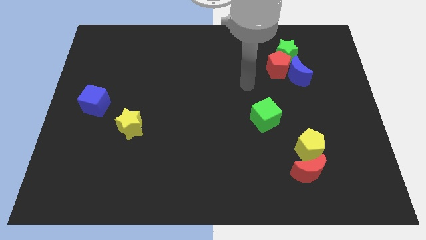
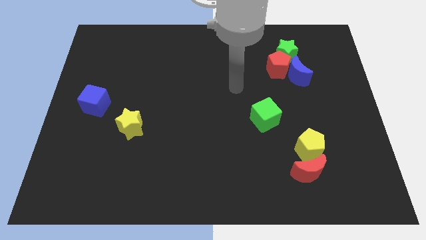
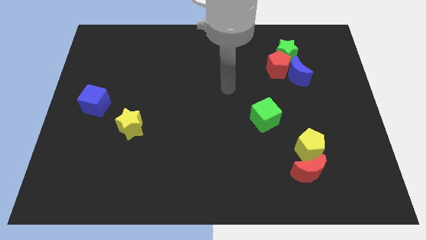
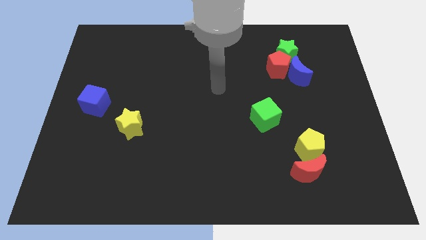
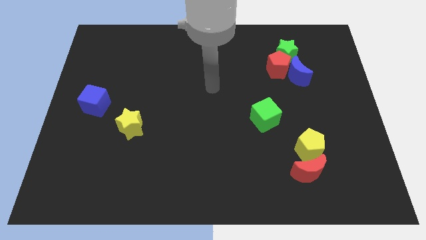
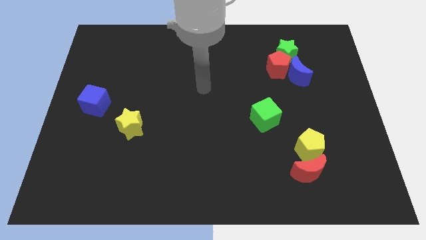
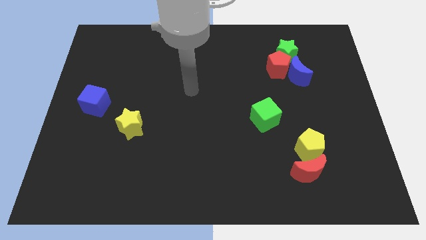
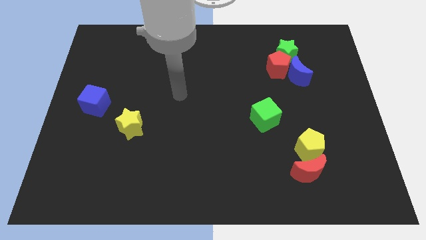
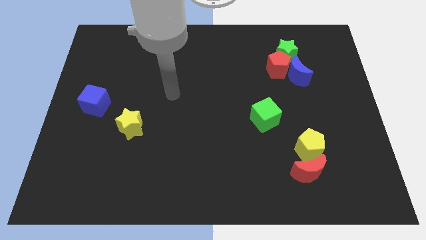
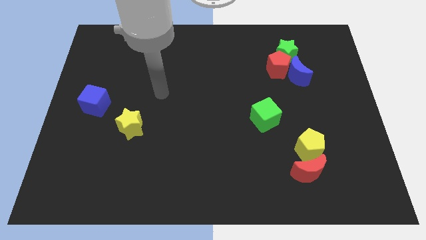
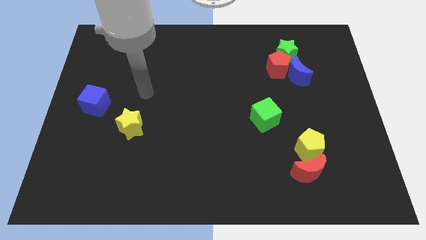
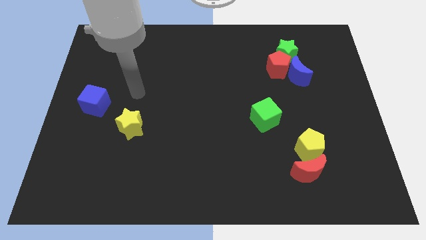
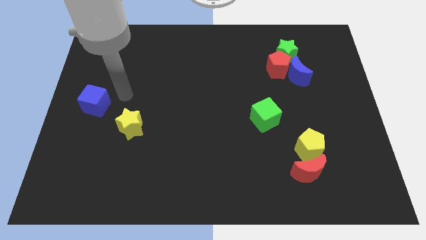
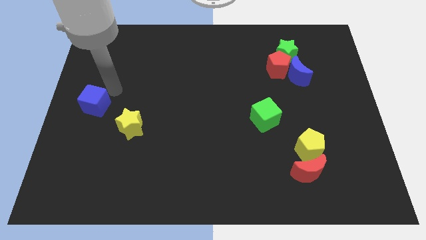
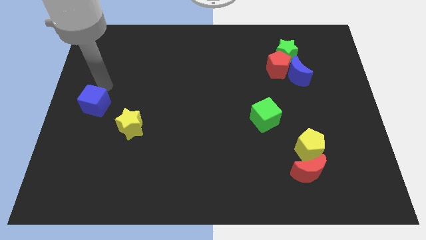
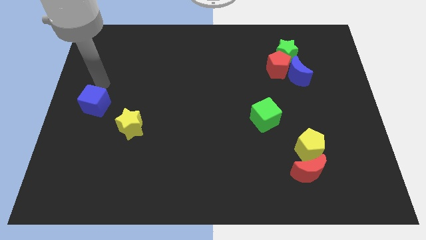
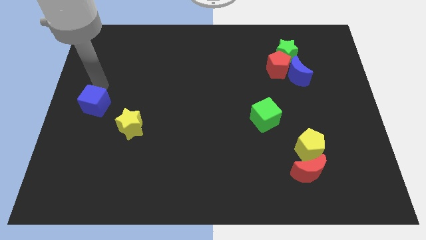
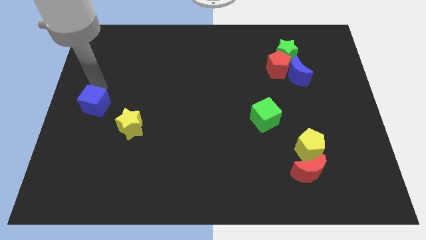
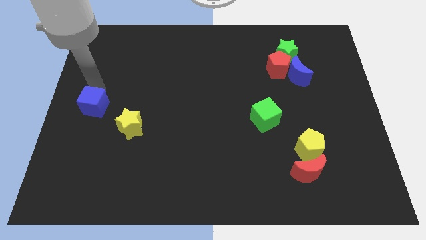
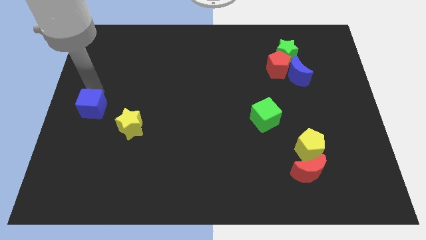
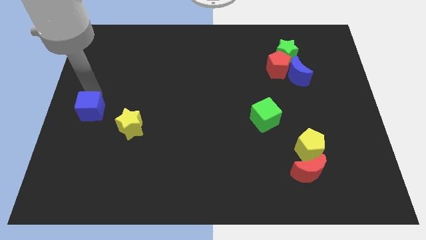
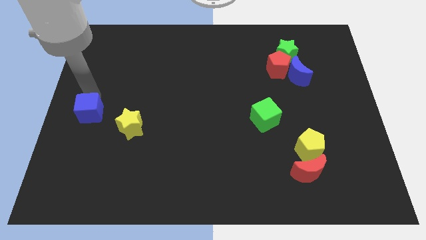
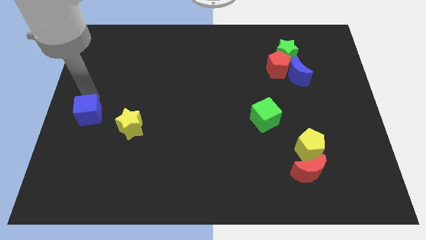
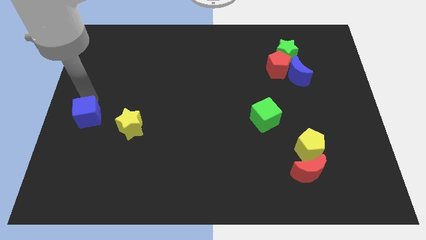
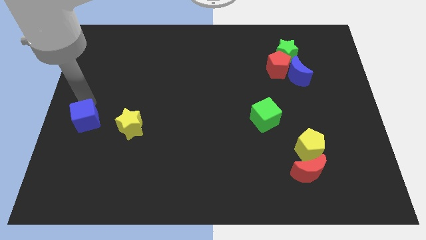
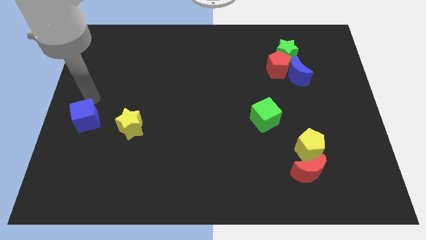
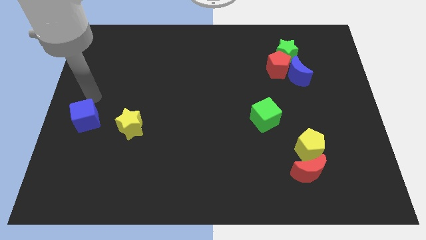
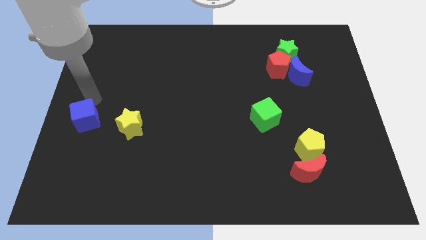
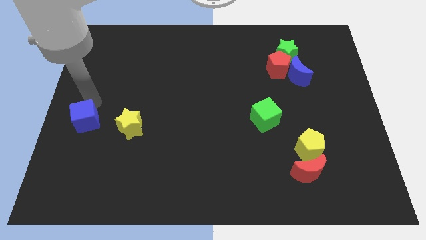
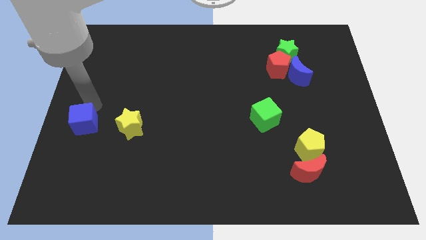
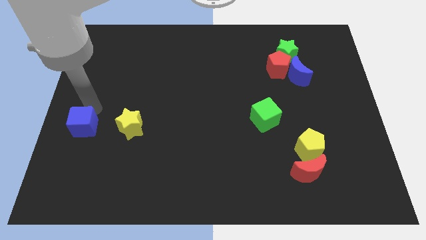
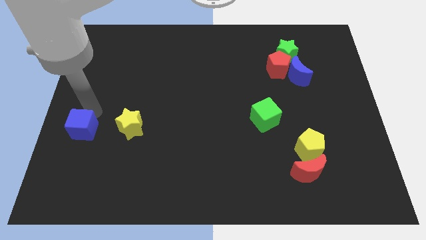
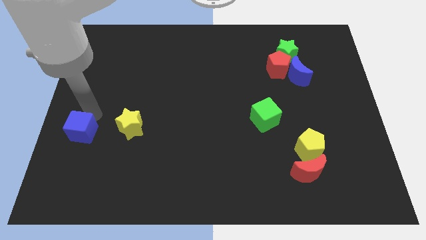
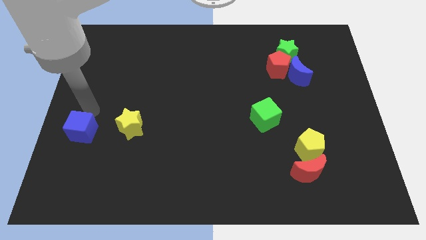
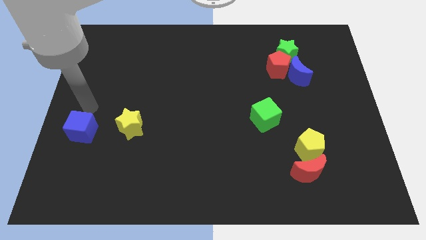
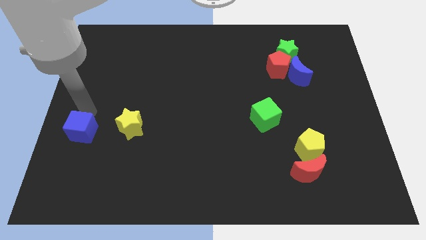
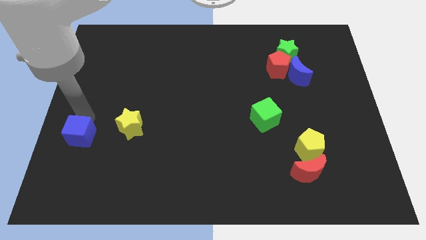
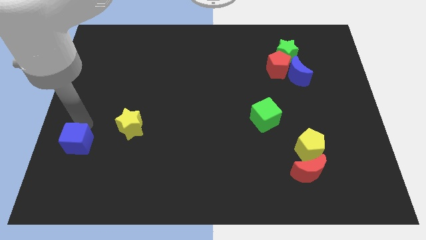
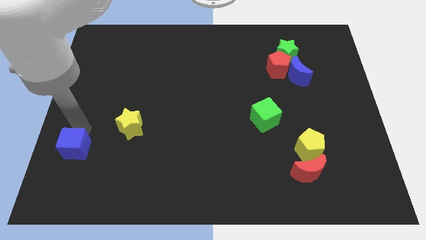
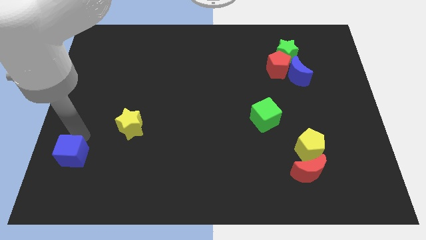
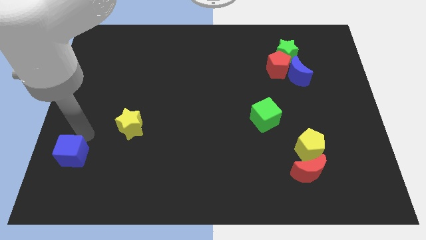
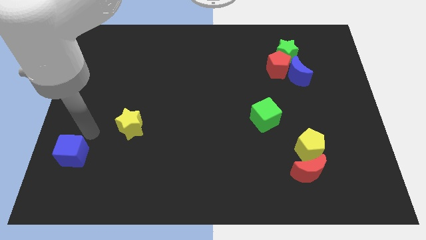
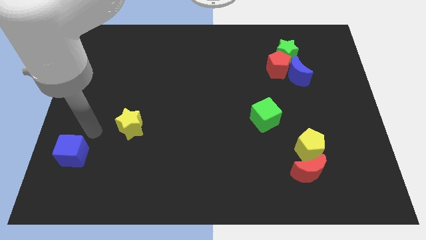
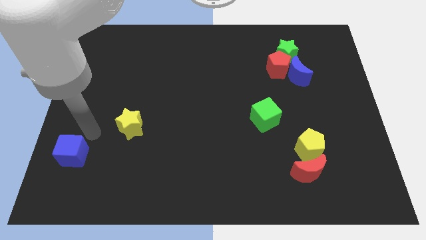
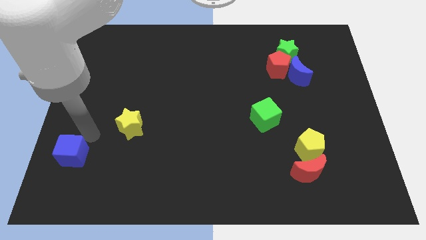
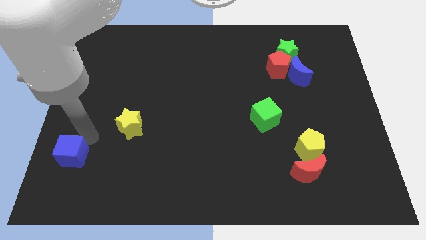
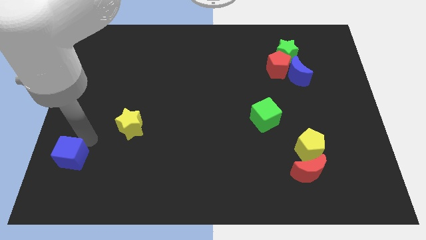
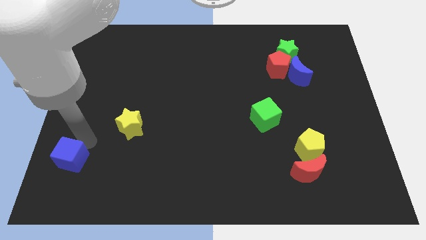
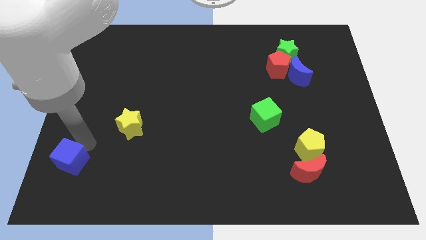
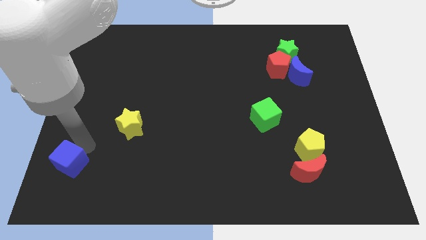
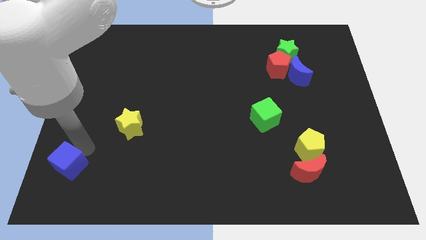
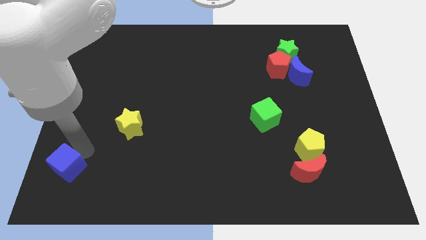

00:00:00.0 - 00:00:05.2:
slide the blue cube to the bottom left

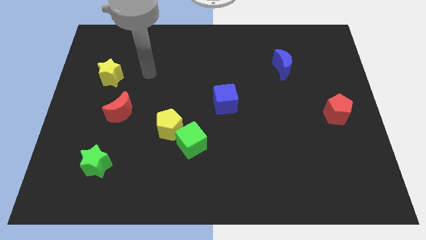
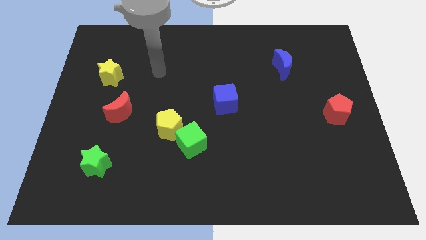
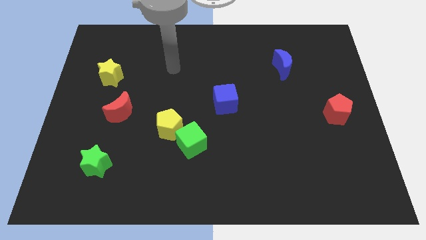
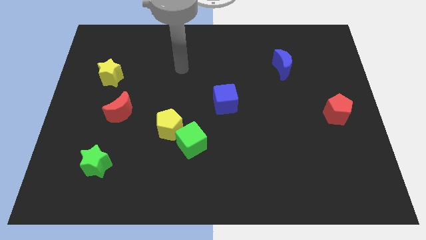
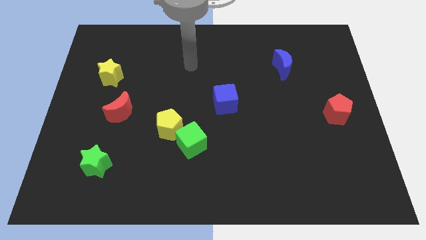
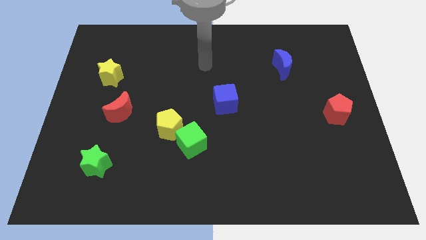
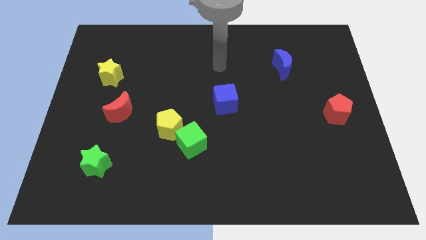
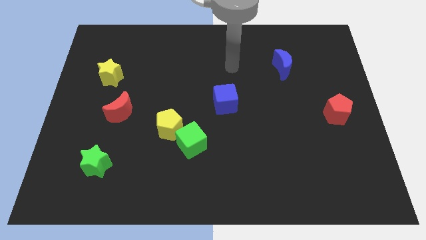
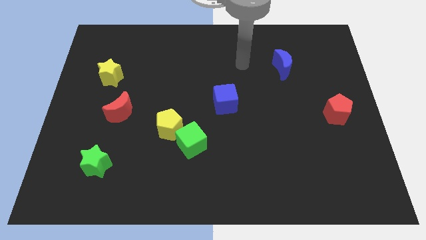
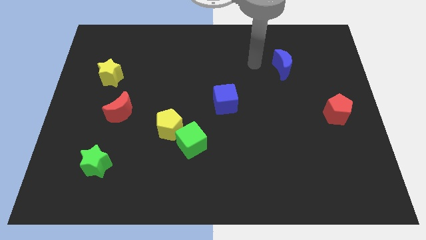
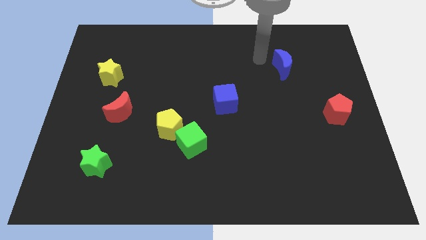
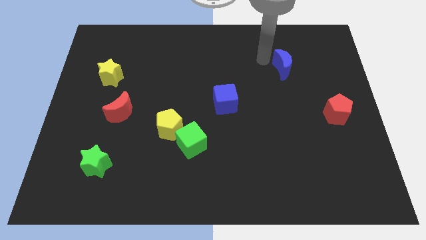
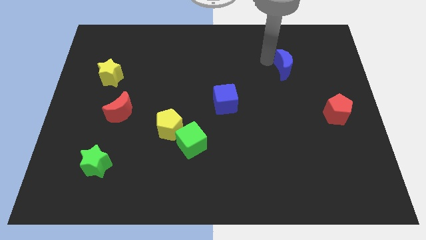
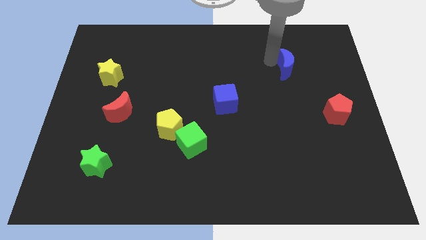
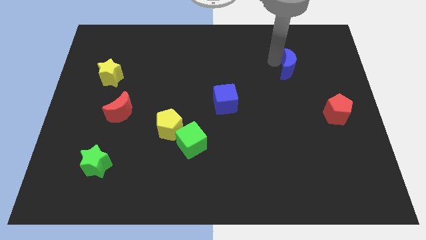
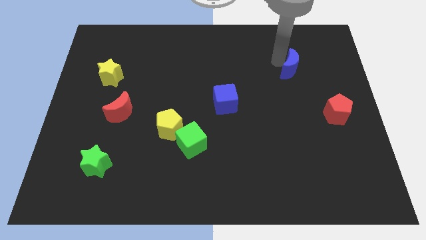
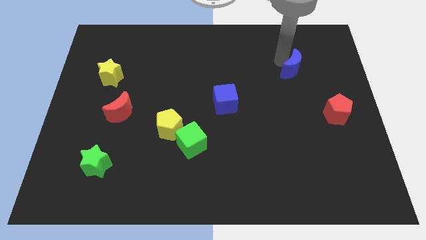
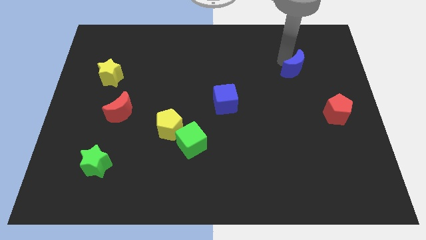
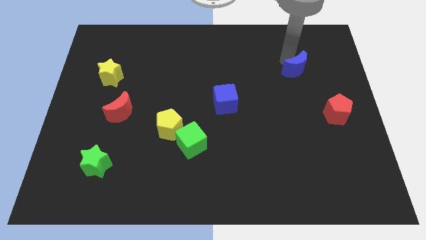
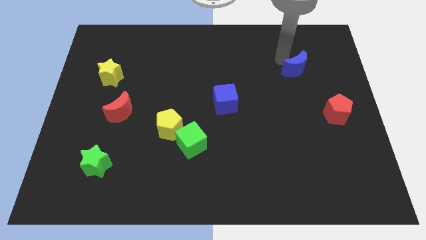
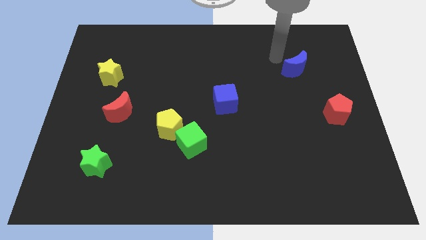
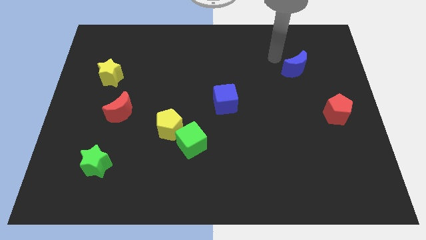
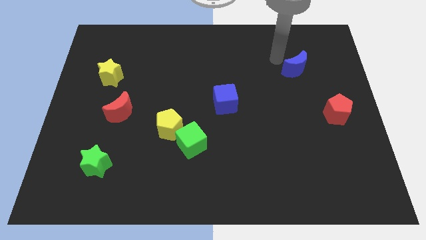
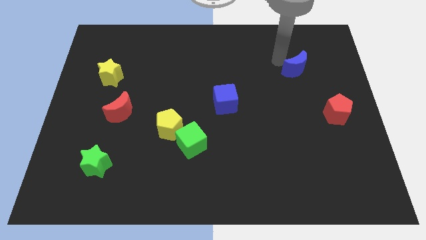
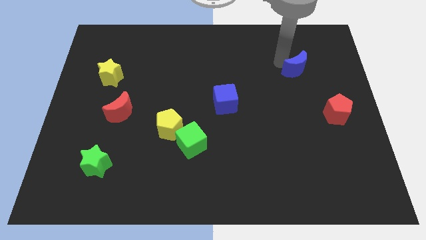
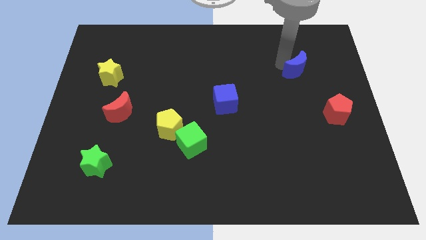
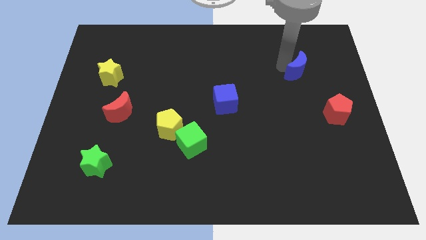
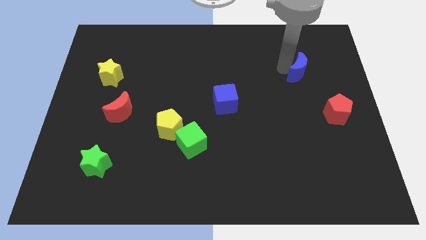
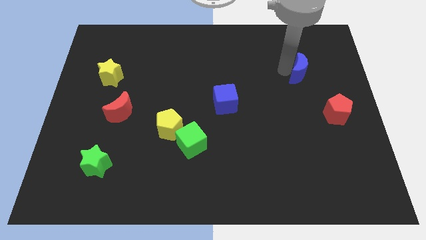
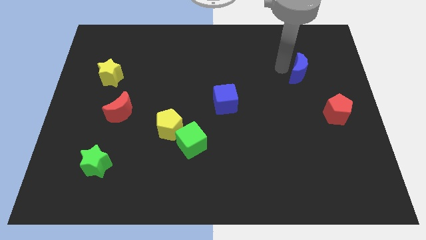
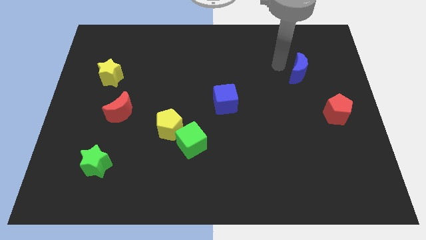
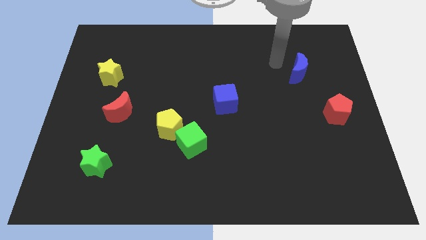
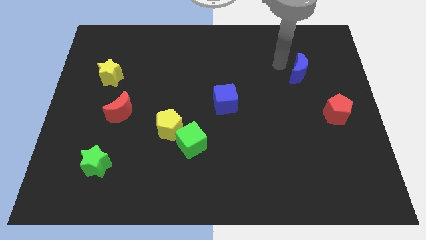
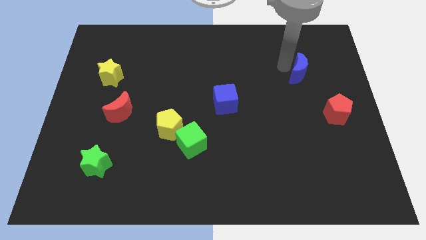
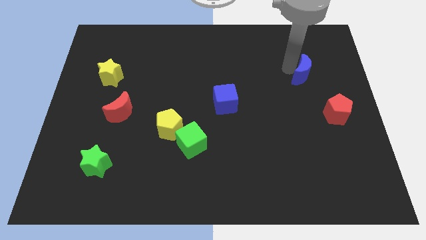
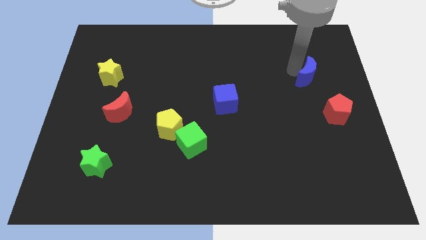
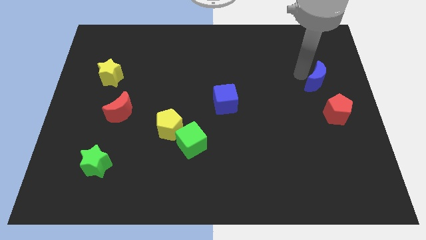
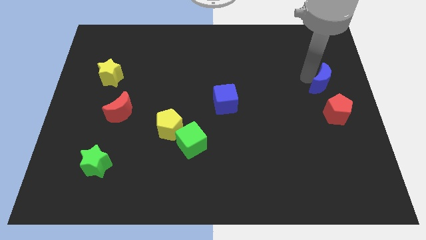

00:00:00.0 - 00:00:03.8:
move the blue moon to the right side of the board
